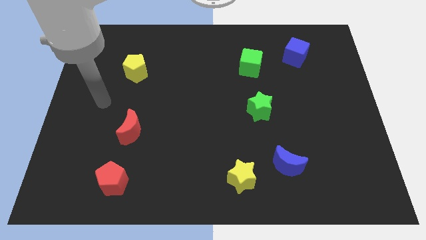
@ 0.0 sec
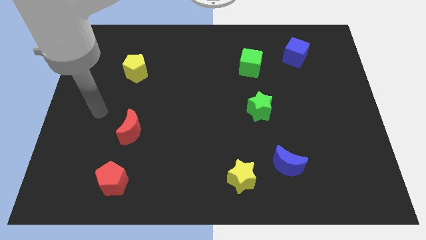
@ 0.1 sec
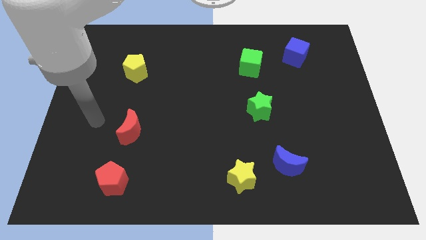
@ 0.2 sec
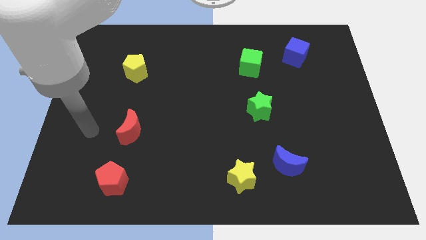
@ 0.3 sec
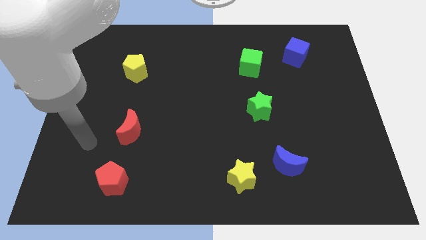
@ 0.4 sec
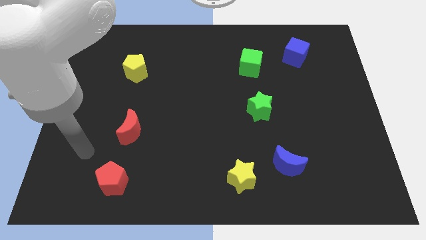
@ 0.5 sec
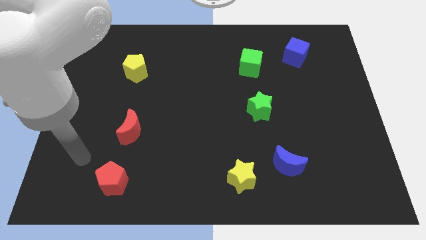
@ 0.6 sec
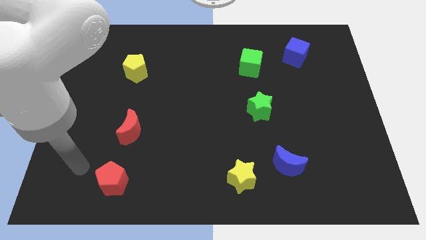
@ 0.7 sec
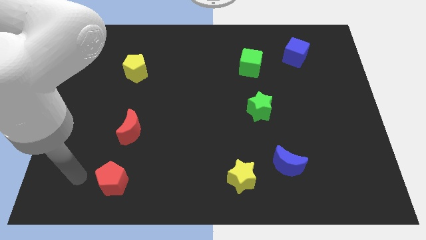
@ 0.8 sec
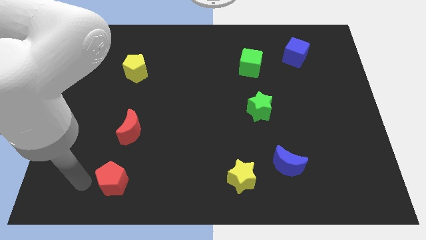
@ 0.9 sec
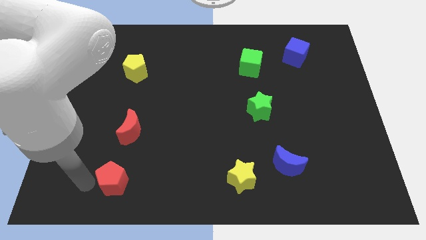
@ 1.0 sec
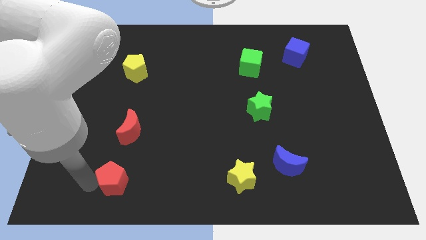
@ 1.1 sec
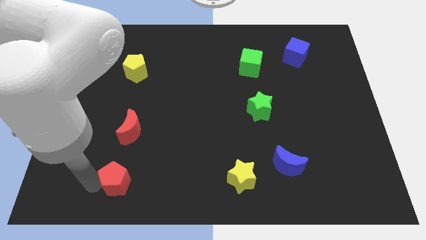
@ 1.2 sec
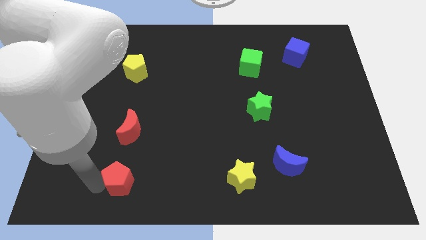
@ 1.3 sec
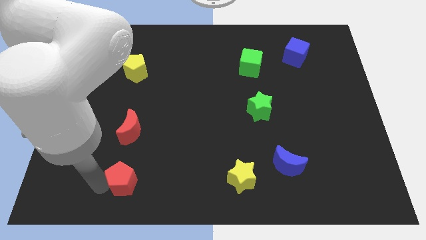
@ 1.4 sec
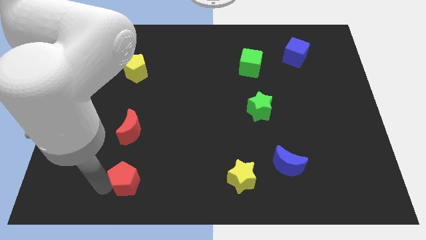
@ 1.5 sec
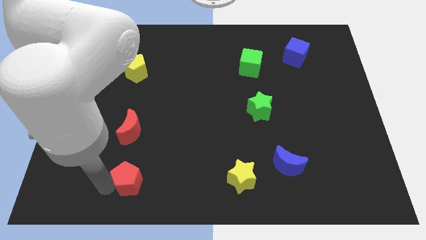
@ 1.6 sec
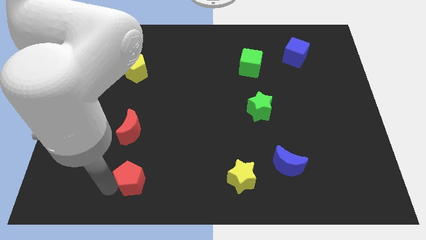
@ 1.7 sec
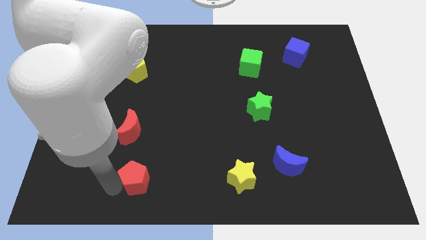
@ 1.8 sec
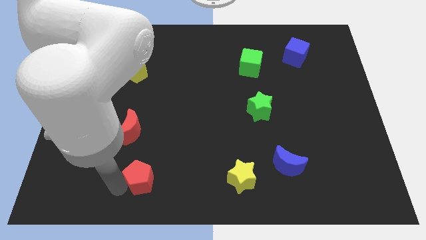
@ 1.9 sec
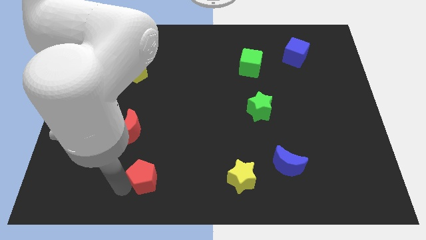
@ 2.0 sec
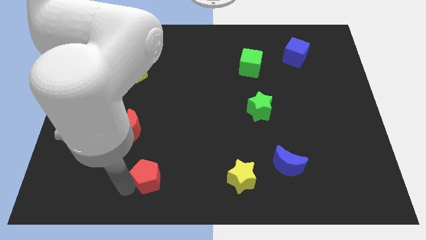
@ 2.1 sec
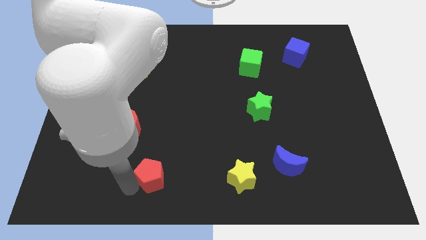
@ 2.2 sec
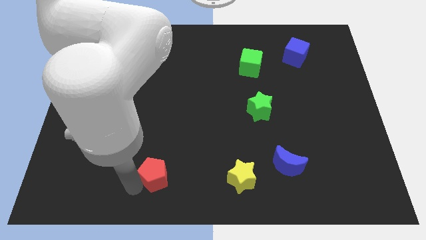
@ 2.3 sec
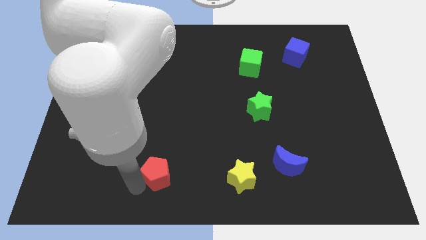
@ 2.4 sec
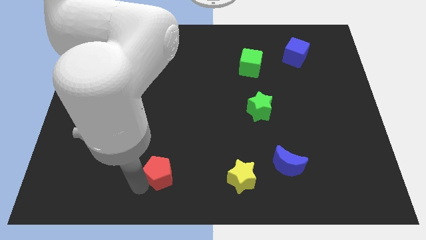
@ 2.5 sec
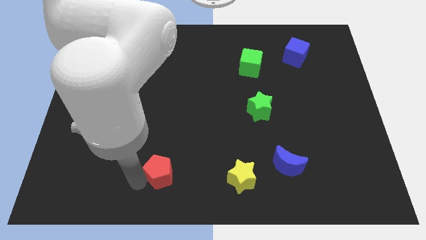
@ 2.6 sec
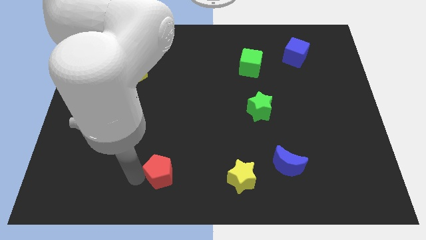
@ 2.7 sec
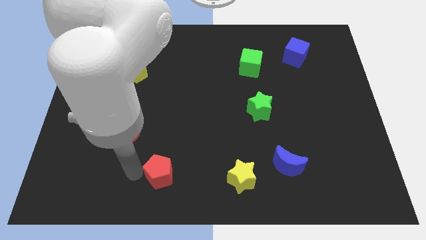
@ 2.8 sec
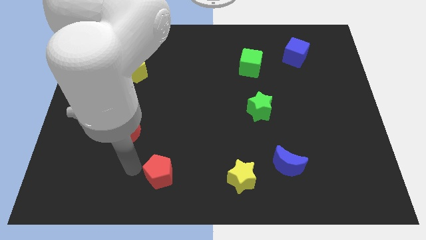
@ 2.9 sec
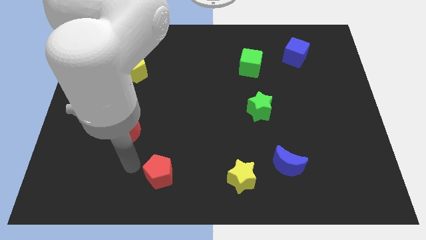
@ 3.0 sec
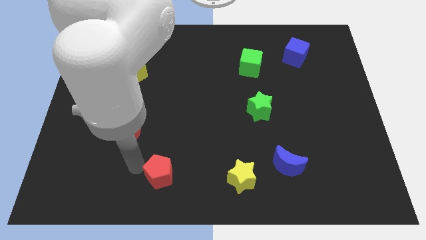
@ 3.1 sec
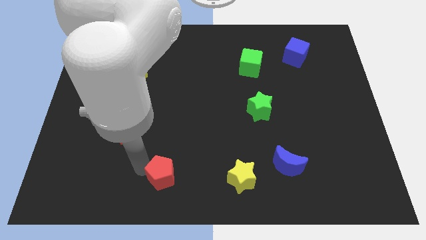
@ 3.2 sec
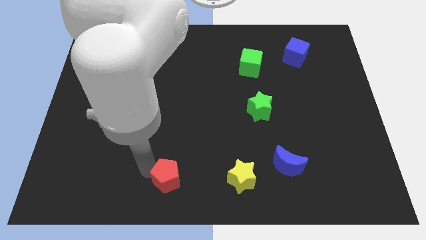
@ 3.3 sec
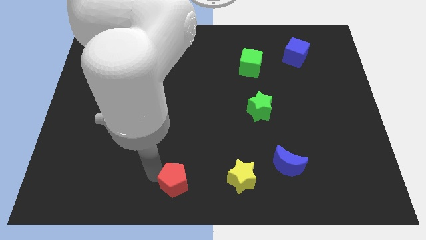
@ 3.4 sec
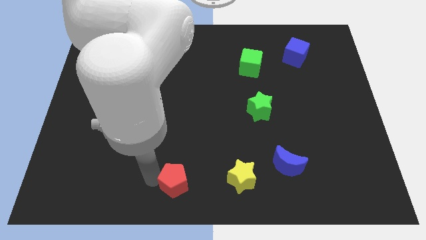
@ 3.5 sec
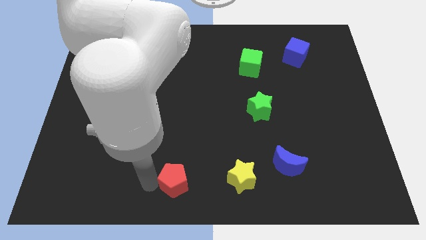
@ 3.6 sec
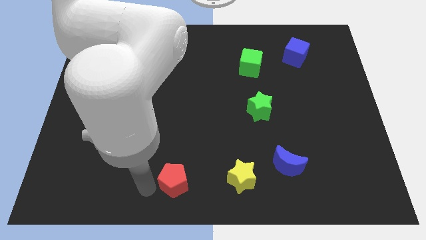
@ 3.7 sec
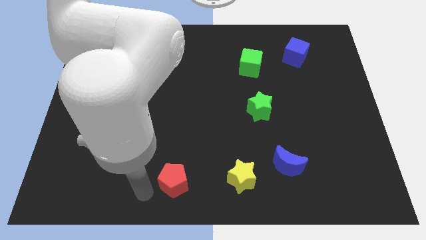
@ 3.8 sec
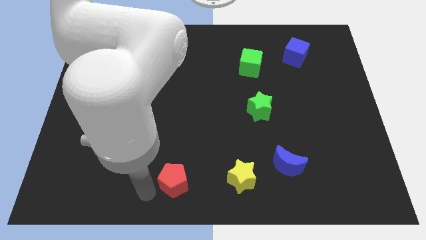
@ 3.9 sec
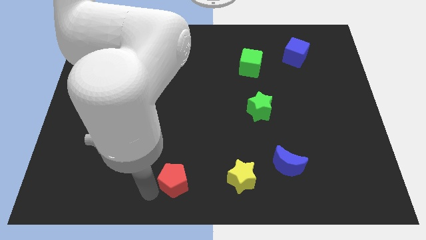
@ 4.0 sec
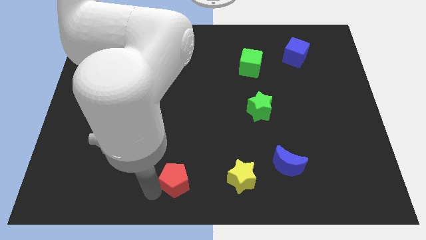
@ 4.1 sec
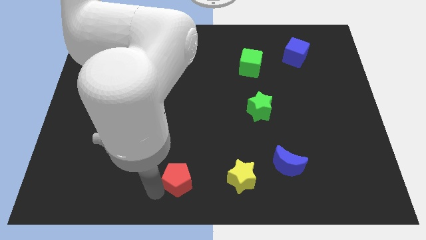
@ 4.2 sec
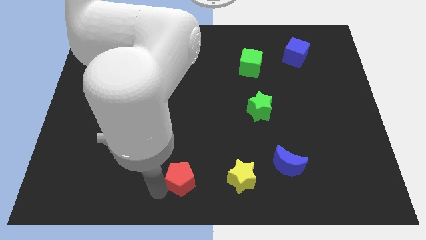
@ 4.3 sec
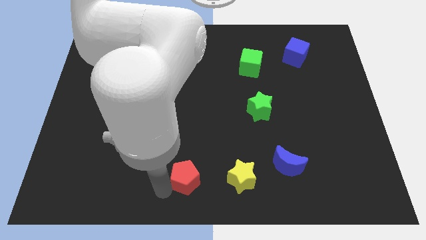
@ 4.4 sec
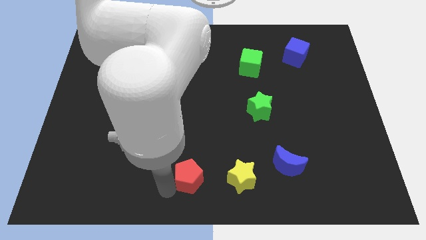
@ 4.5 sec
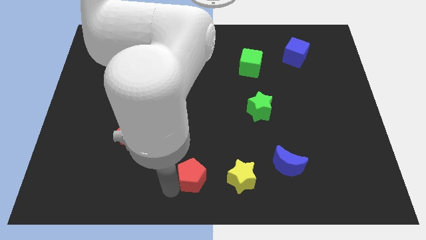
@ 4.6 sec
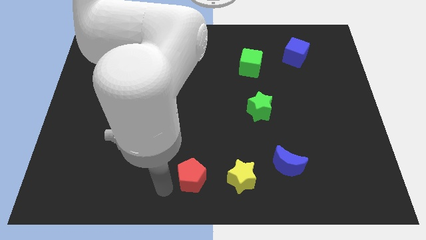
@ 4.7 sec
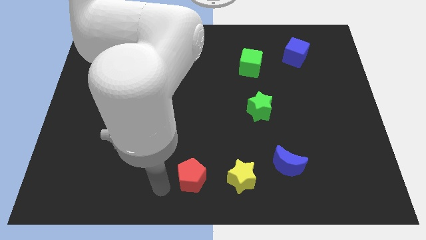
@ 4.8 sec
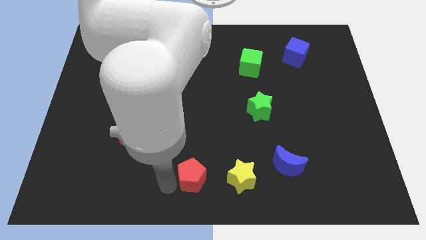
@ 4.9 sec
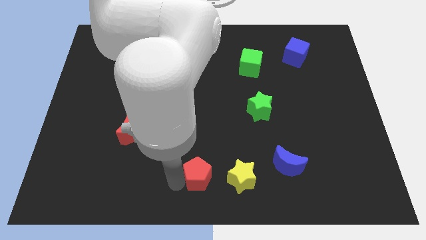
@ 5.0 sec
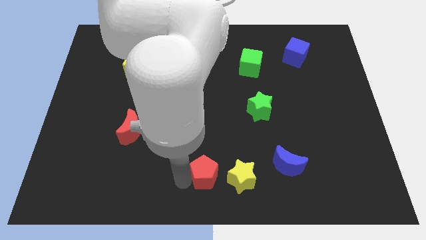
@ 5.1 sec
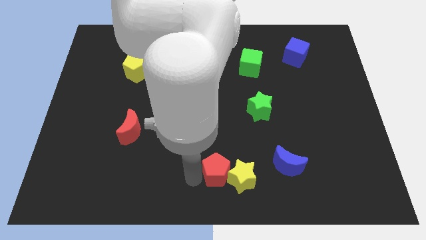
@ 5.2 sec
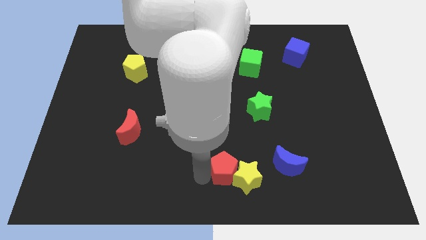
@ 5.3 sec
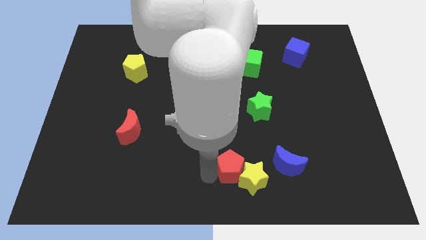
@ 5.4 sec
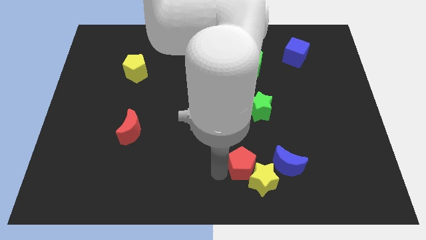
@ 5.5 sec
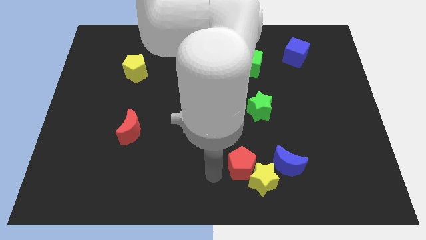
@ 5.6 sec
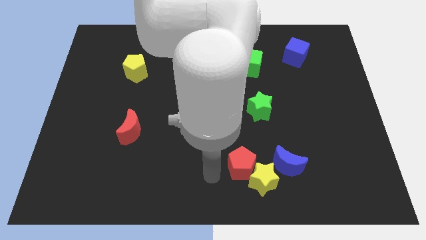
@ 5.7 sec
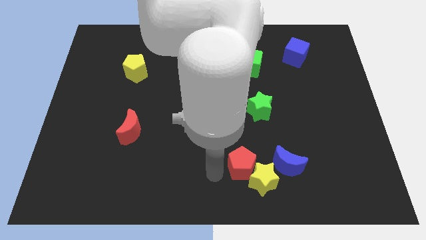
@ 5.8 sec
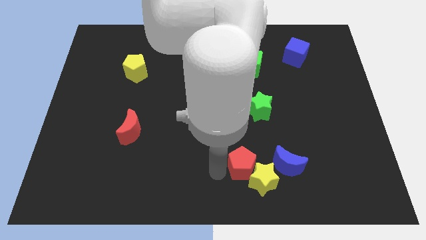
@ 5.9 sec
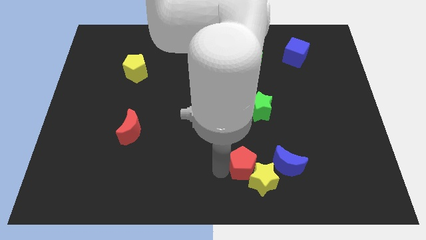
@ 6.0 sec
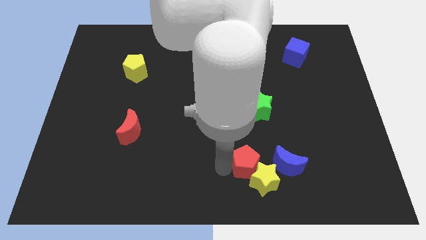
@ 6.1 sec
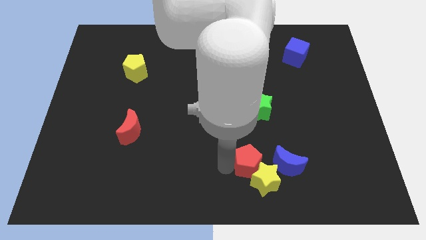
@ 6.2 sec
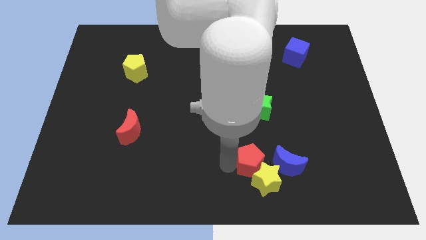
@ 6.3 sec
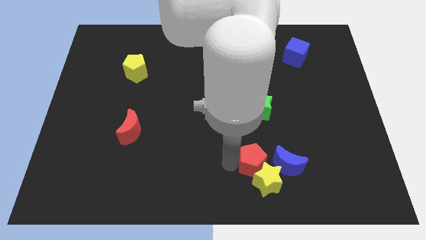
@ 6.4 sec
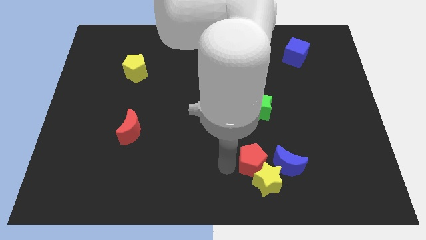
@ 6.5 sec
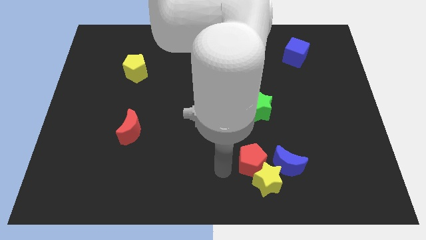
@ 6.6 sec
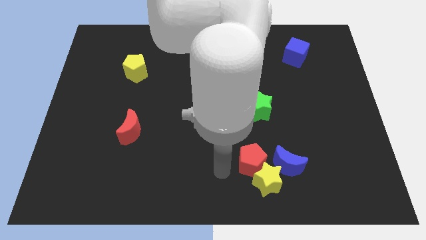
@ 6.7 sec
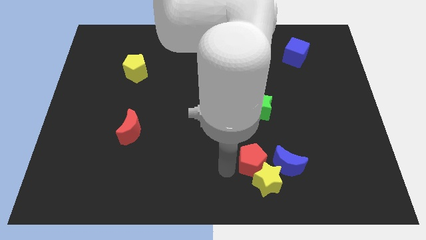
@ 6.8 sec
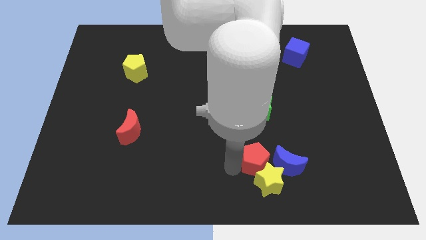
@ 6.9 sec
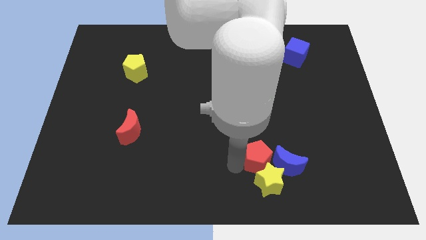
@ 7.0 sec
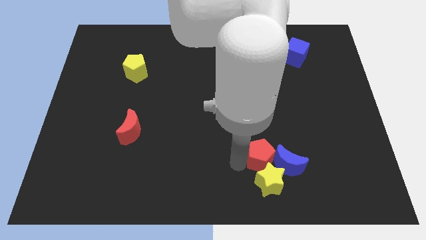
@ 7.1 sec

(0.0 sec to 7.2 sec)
push the red pentagon close to the blue moon
